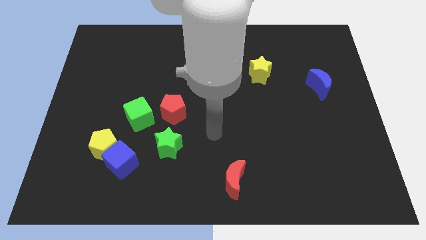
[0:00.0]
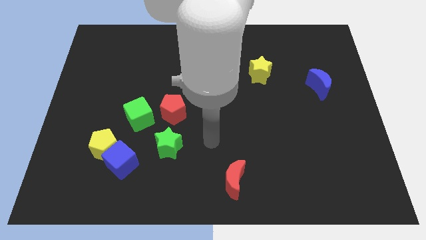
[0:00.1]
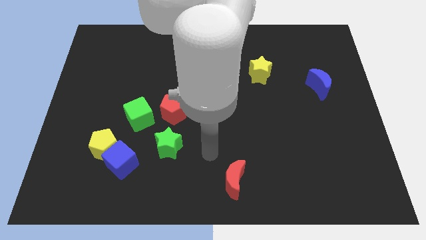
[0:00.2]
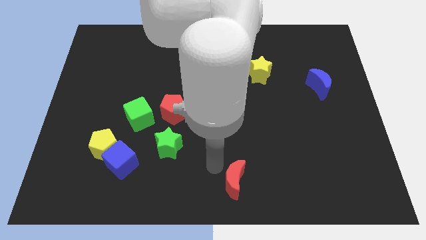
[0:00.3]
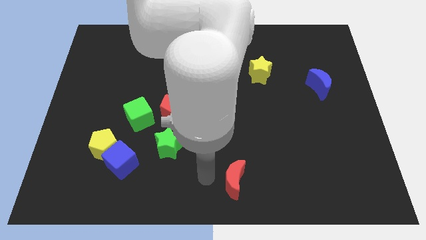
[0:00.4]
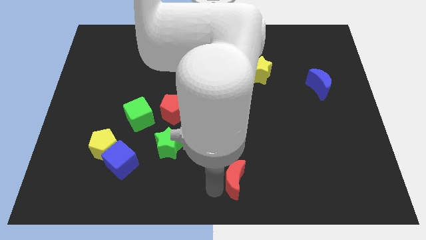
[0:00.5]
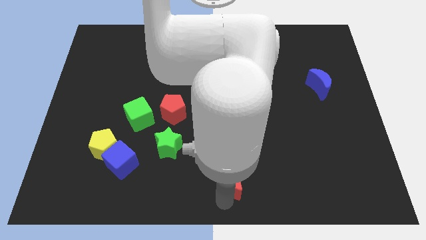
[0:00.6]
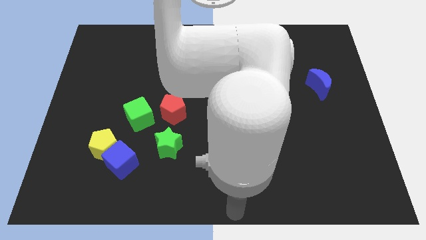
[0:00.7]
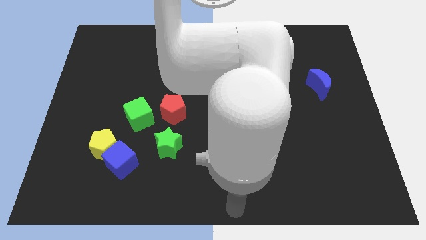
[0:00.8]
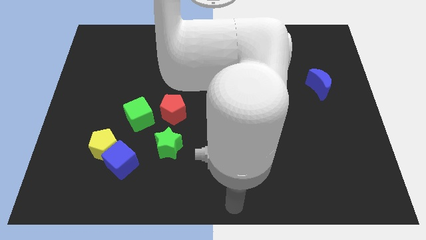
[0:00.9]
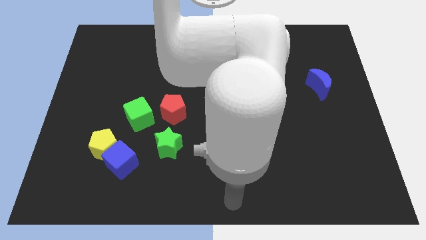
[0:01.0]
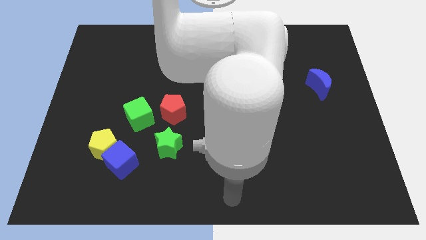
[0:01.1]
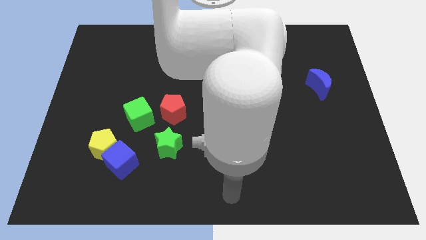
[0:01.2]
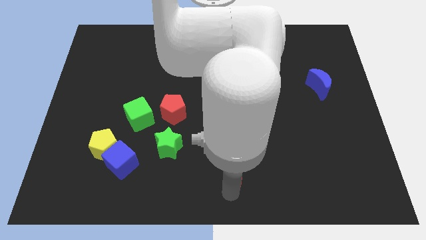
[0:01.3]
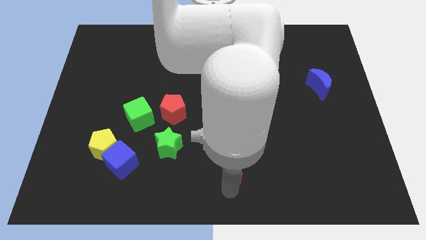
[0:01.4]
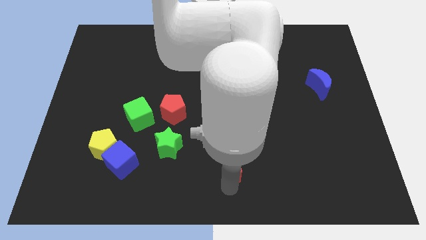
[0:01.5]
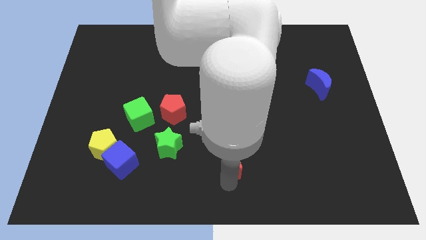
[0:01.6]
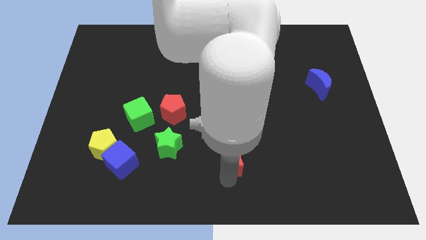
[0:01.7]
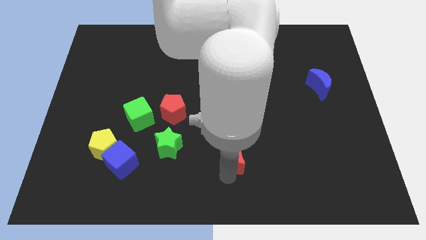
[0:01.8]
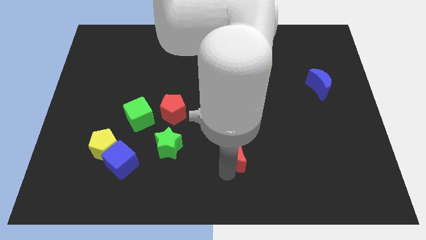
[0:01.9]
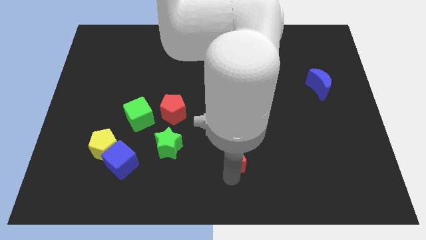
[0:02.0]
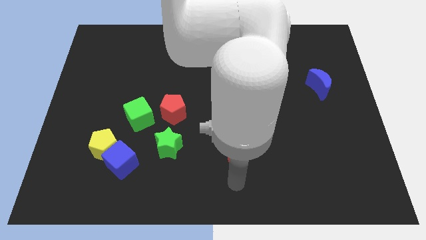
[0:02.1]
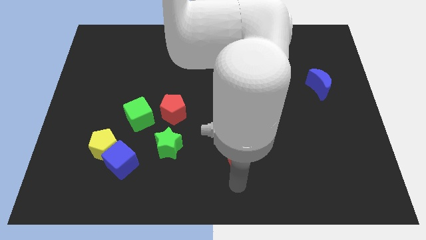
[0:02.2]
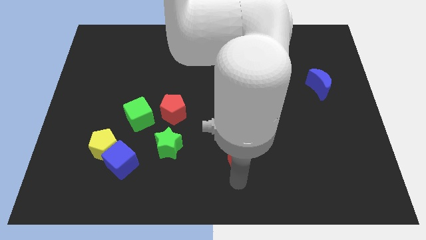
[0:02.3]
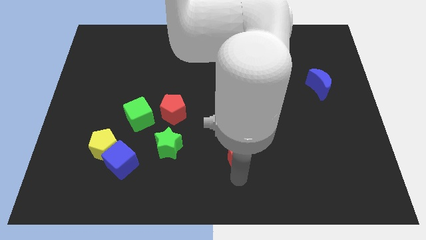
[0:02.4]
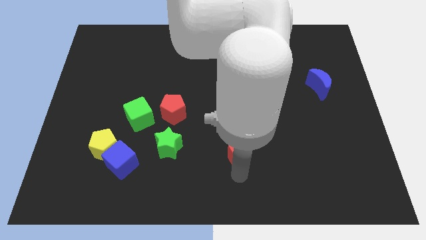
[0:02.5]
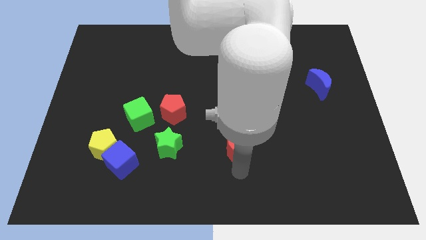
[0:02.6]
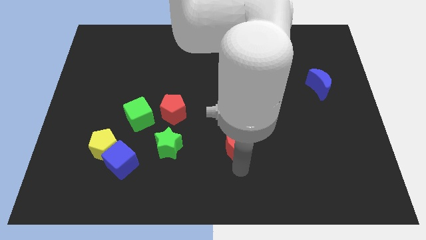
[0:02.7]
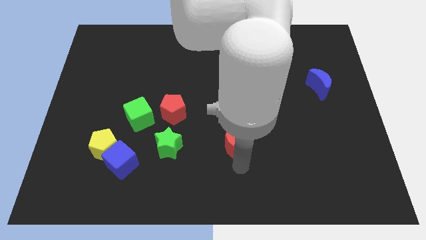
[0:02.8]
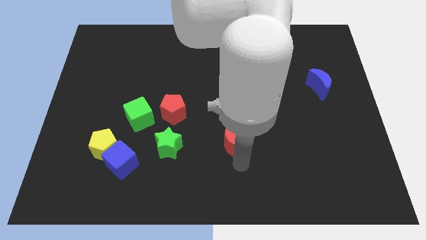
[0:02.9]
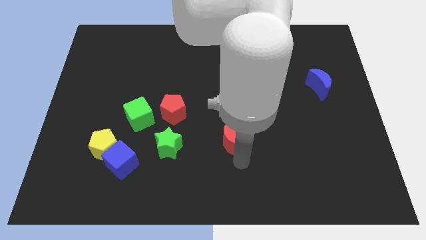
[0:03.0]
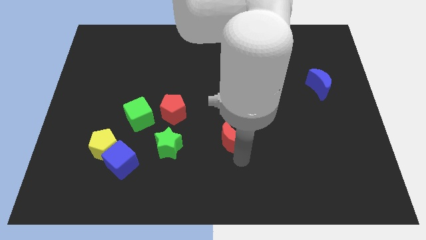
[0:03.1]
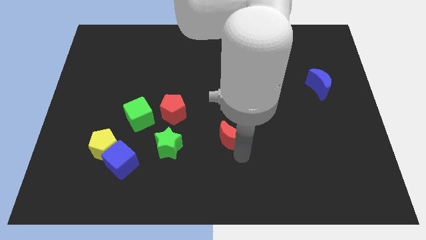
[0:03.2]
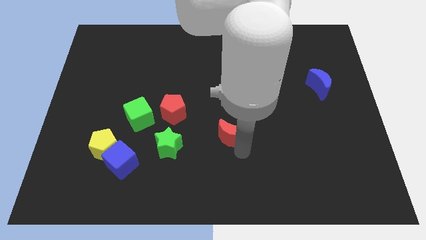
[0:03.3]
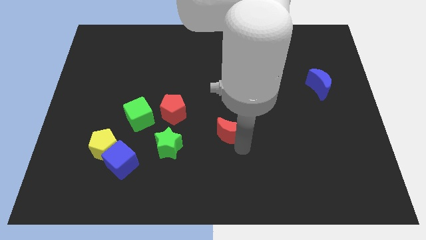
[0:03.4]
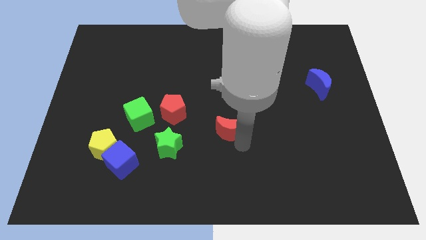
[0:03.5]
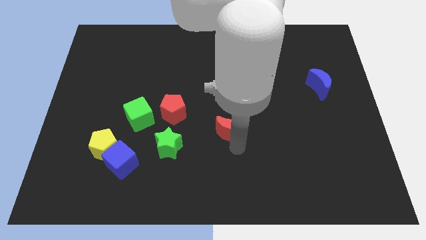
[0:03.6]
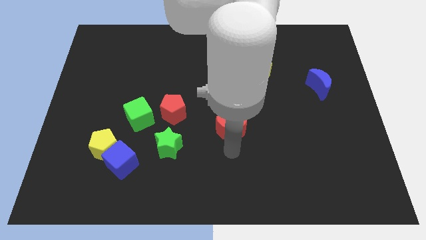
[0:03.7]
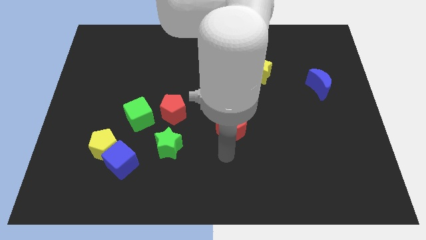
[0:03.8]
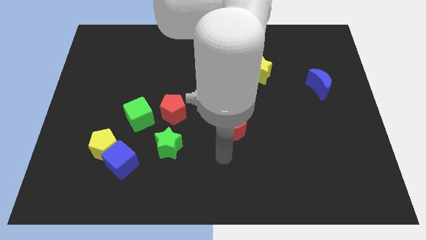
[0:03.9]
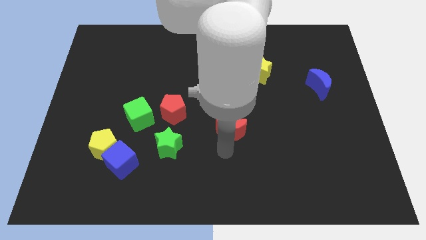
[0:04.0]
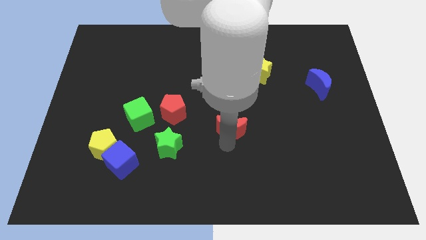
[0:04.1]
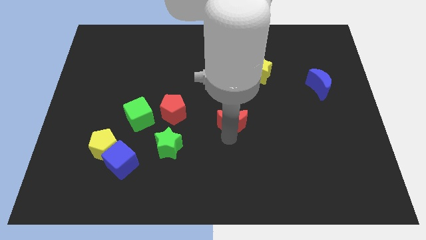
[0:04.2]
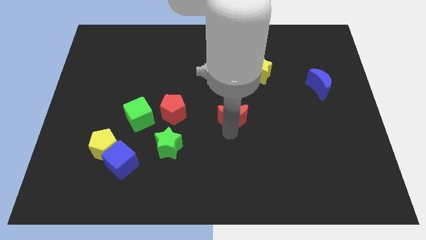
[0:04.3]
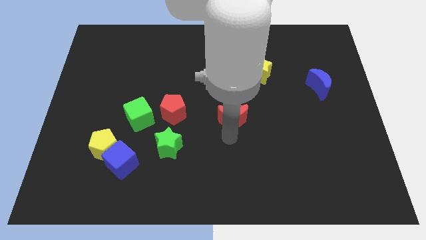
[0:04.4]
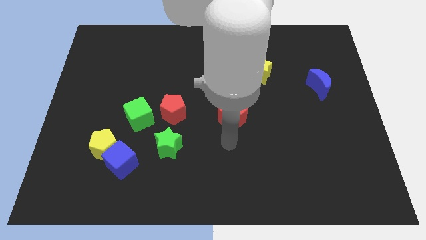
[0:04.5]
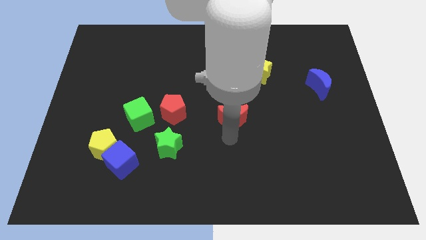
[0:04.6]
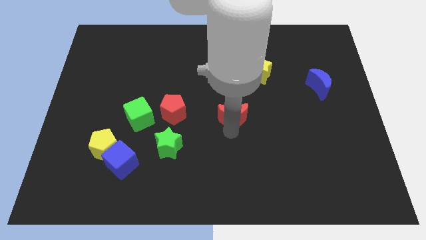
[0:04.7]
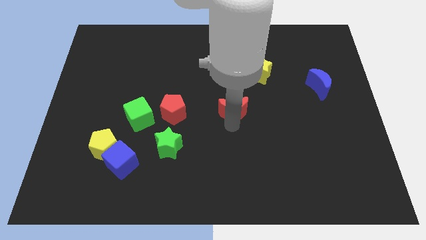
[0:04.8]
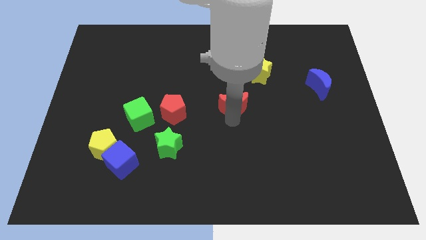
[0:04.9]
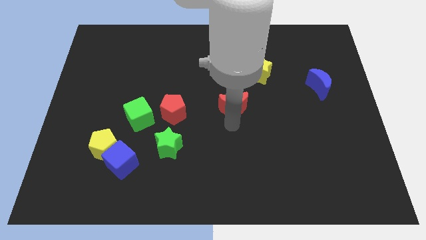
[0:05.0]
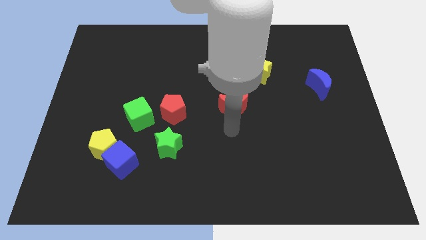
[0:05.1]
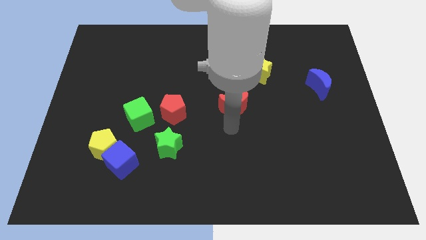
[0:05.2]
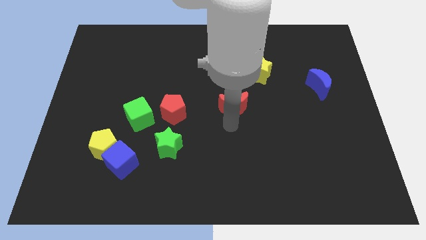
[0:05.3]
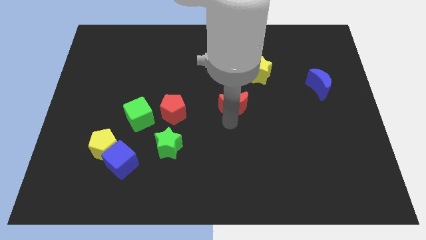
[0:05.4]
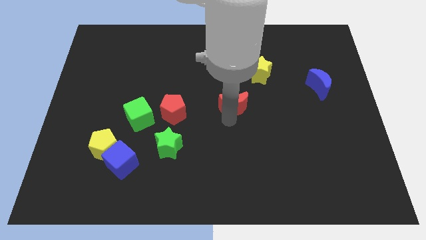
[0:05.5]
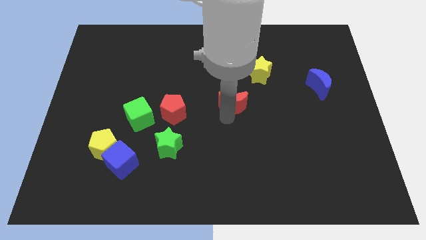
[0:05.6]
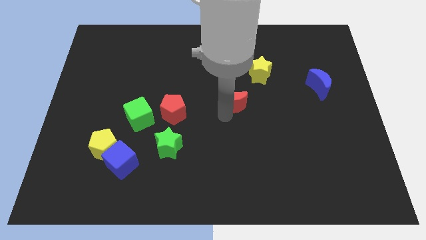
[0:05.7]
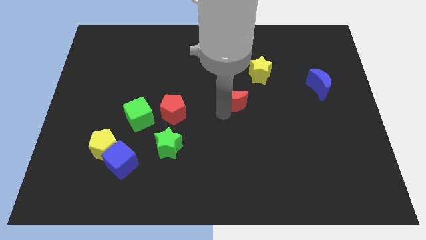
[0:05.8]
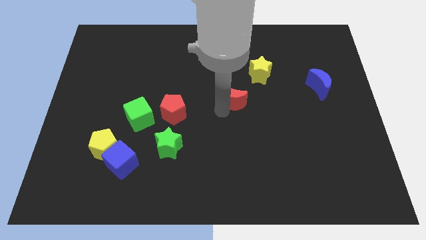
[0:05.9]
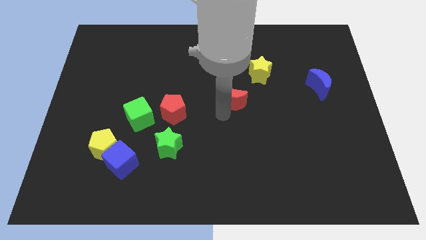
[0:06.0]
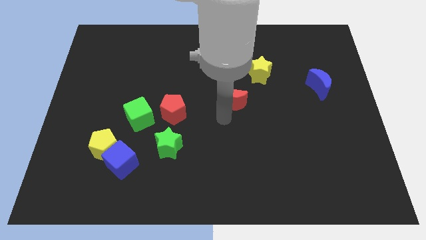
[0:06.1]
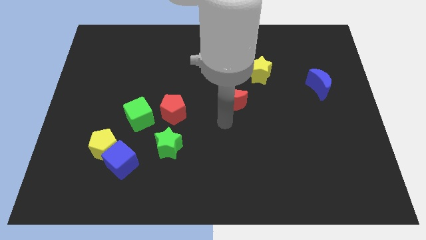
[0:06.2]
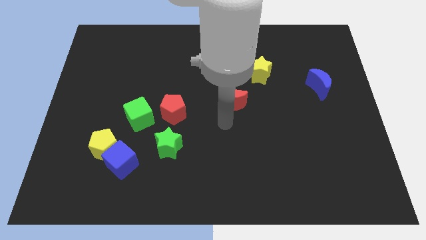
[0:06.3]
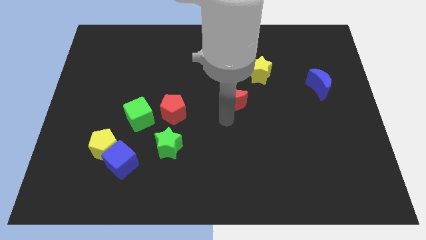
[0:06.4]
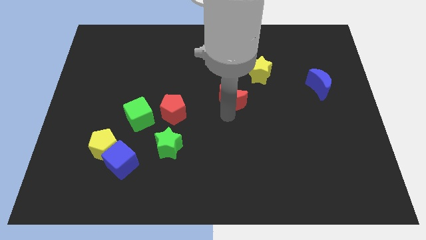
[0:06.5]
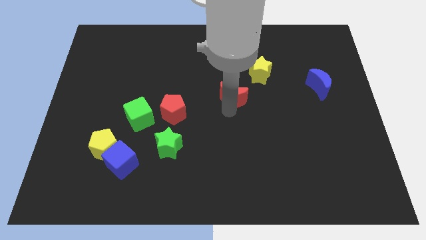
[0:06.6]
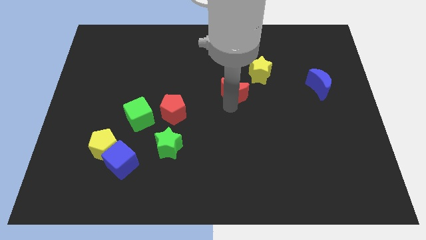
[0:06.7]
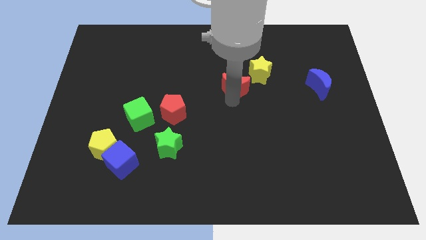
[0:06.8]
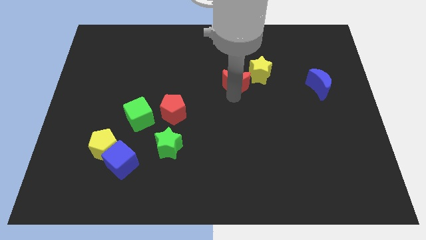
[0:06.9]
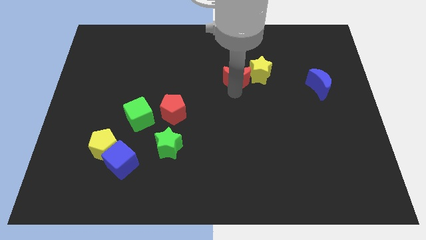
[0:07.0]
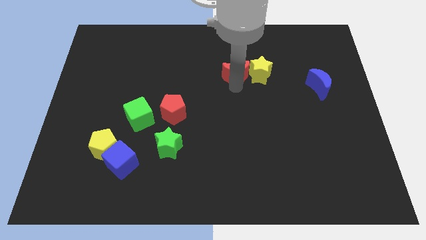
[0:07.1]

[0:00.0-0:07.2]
push the red moon to the top left of the yellow star

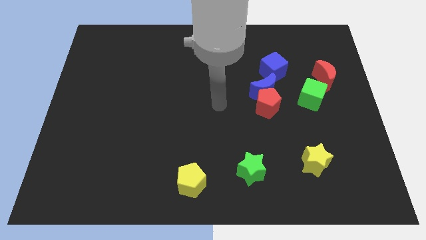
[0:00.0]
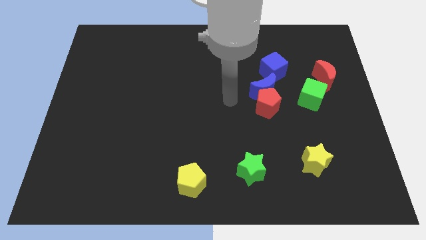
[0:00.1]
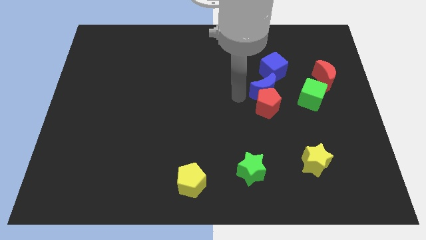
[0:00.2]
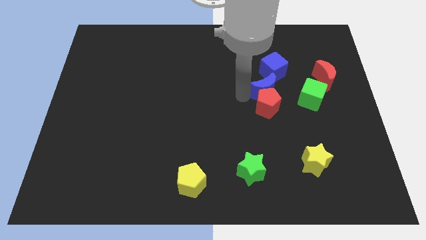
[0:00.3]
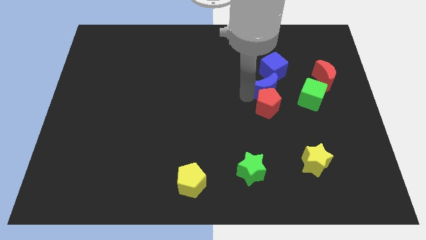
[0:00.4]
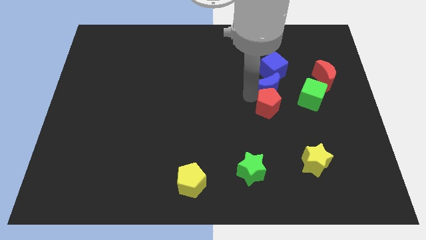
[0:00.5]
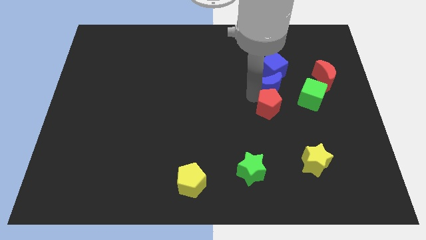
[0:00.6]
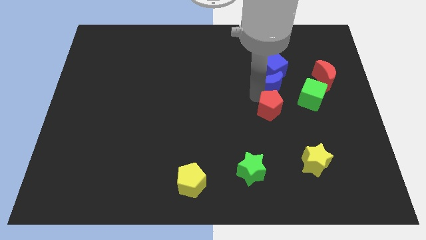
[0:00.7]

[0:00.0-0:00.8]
put the blue moon to the bottom right side of the blue cube

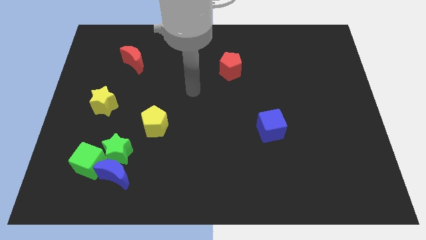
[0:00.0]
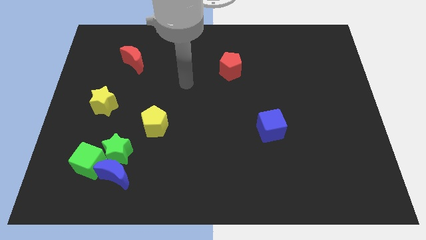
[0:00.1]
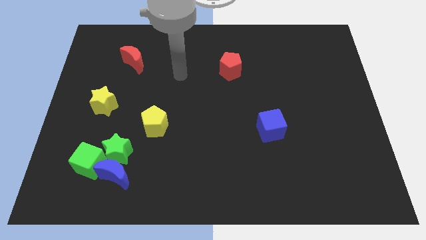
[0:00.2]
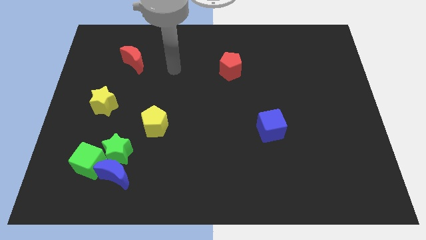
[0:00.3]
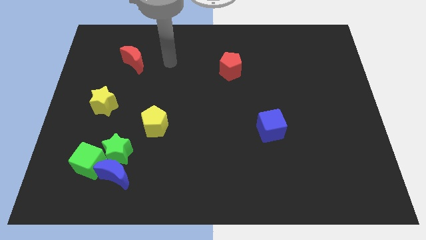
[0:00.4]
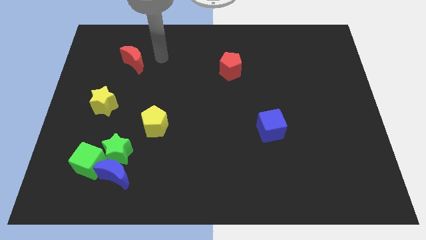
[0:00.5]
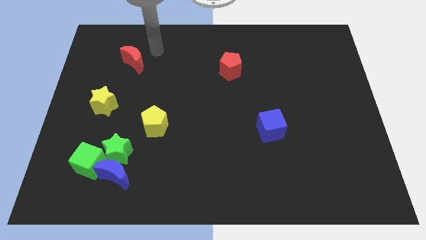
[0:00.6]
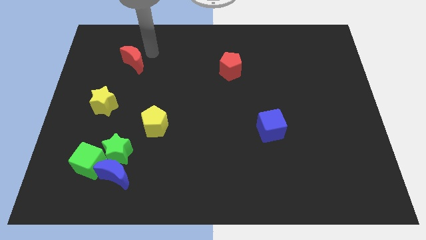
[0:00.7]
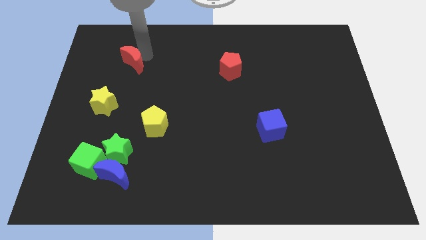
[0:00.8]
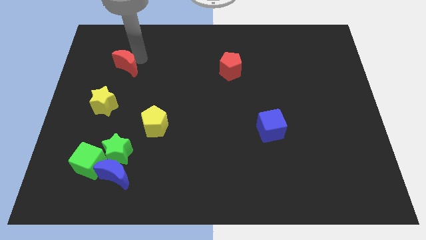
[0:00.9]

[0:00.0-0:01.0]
put the red moon above the yellow star
